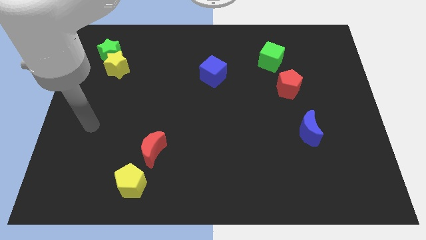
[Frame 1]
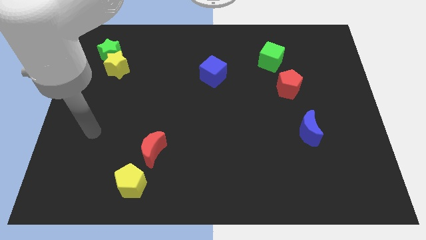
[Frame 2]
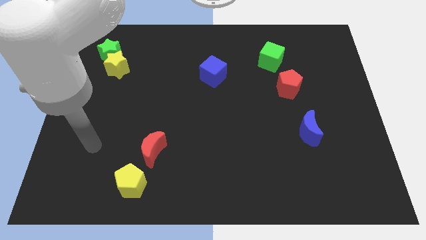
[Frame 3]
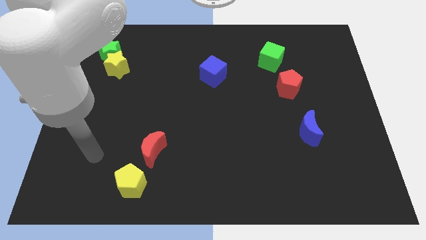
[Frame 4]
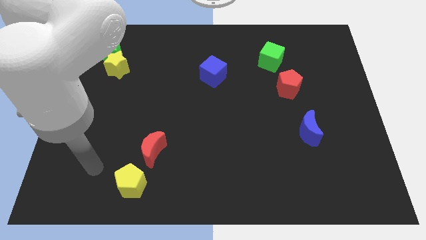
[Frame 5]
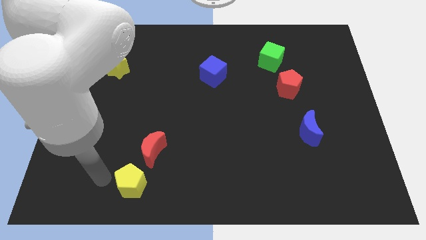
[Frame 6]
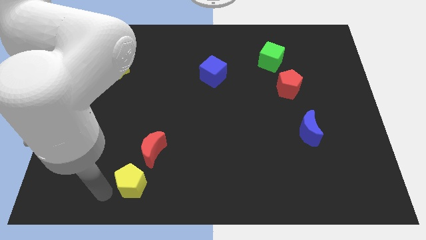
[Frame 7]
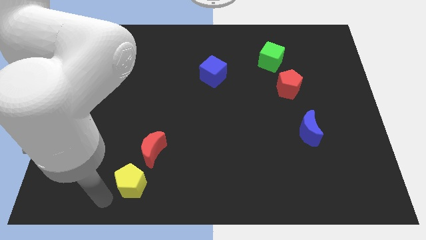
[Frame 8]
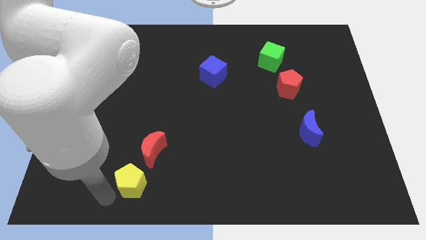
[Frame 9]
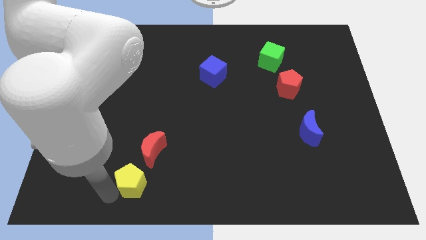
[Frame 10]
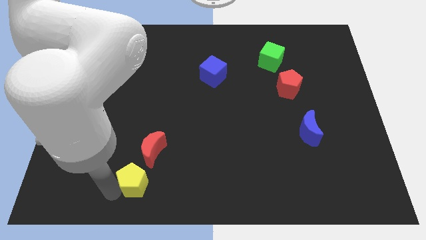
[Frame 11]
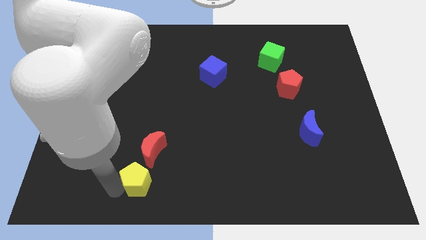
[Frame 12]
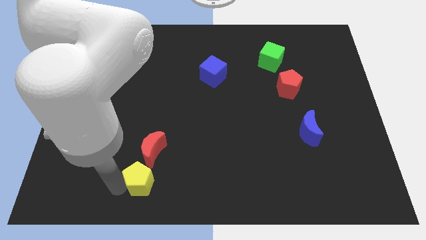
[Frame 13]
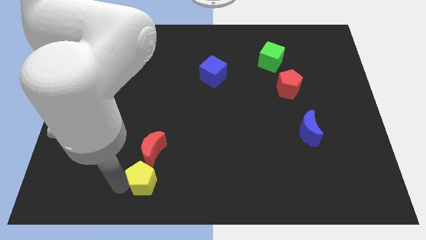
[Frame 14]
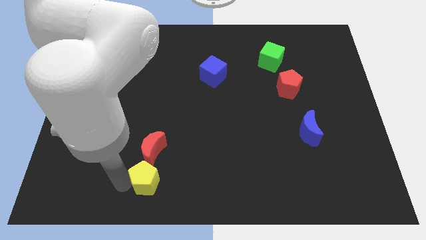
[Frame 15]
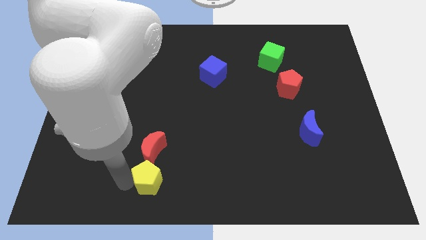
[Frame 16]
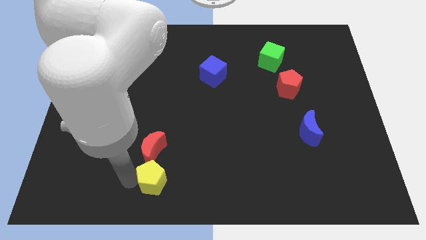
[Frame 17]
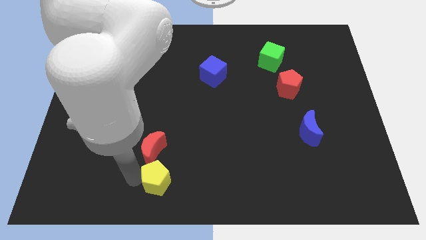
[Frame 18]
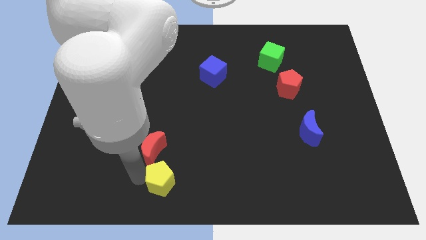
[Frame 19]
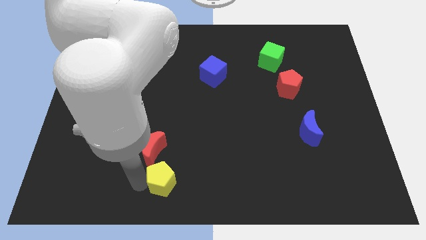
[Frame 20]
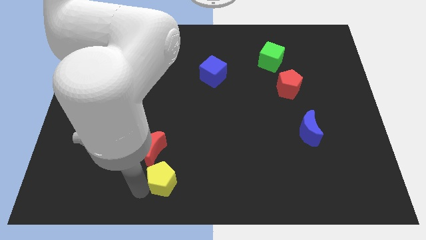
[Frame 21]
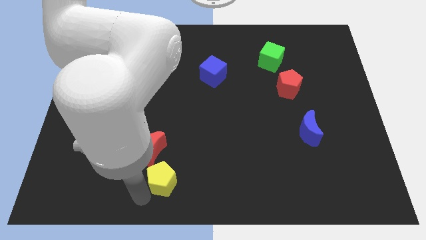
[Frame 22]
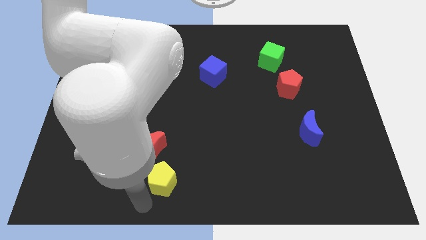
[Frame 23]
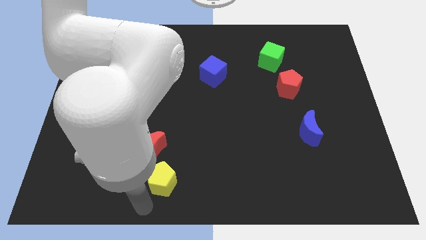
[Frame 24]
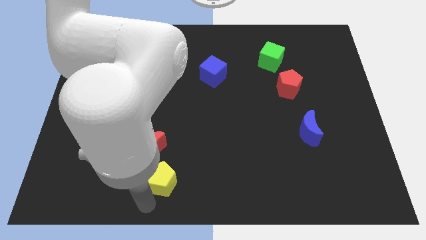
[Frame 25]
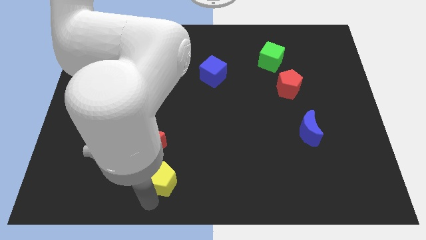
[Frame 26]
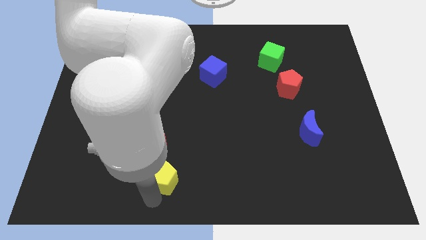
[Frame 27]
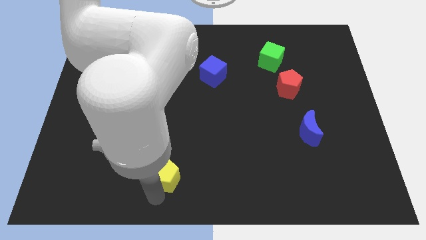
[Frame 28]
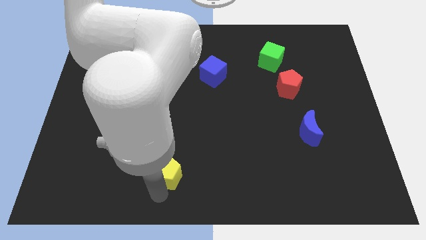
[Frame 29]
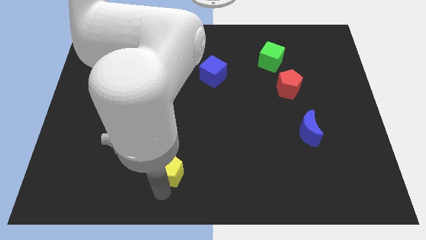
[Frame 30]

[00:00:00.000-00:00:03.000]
push the yellow pentagon somewhat diagonally upwards and right

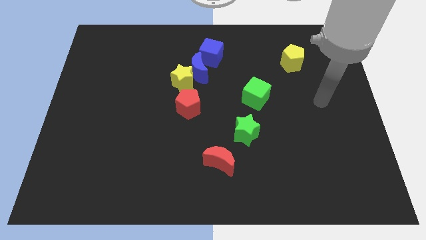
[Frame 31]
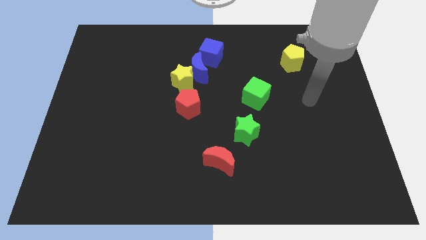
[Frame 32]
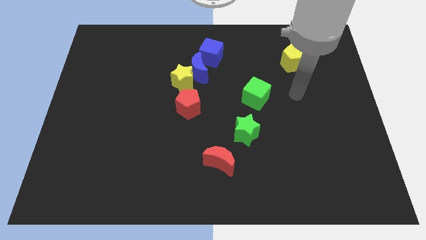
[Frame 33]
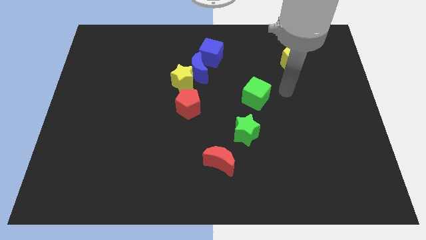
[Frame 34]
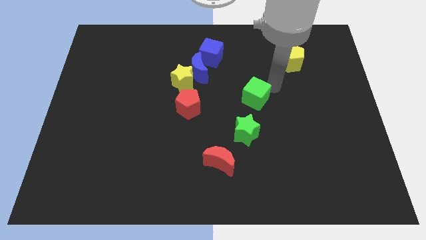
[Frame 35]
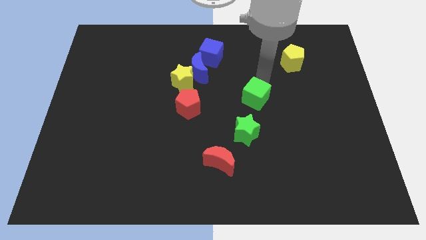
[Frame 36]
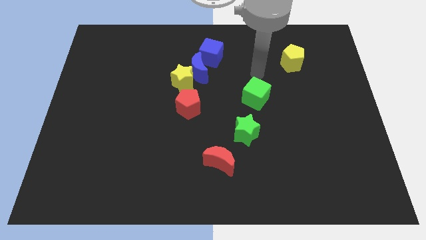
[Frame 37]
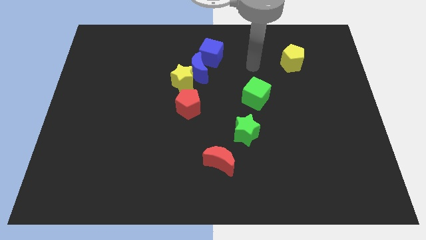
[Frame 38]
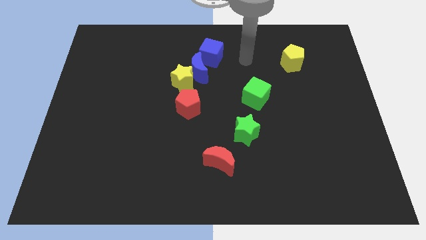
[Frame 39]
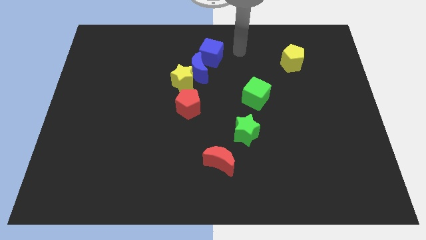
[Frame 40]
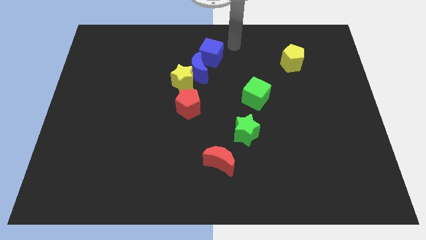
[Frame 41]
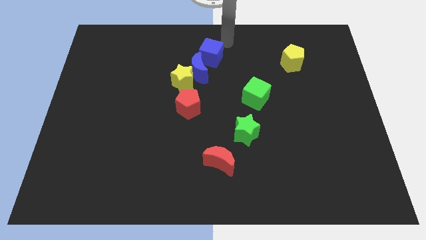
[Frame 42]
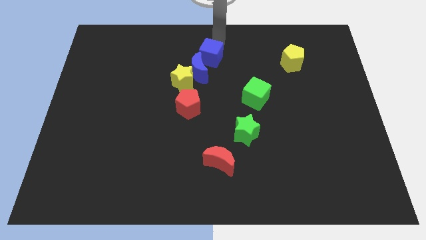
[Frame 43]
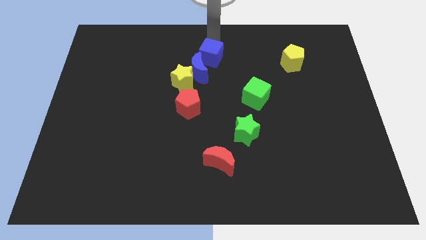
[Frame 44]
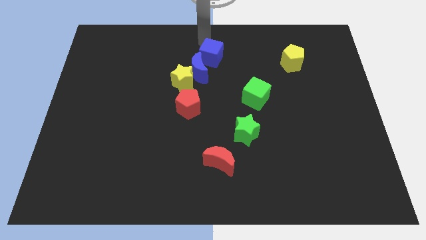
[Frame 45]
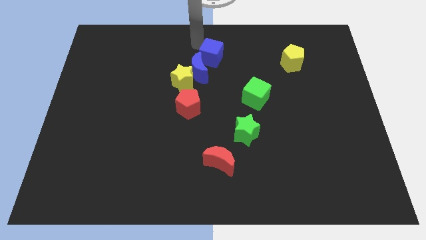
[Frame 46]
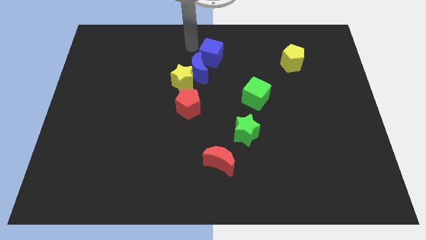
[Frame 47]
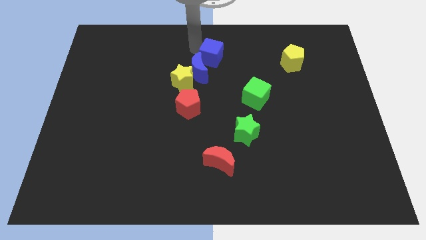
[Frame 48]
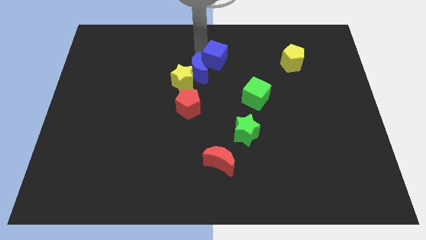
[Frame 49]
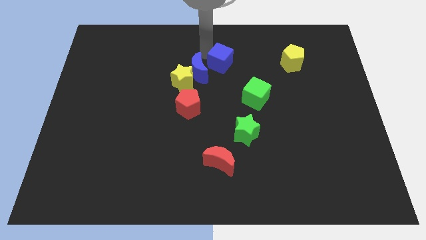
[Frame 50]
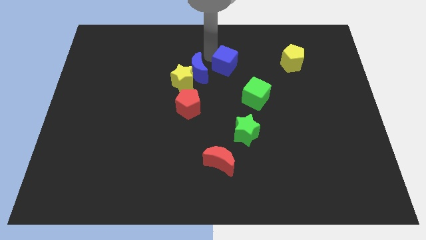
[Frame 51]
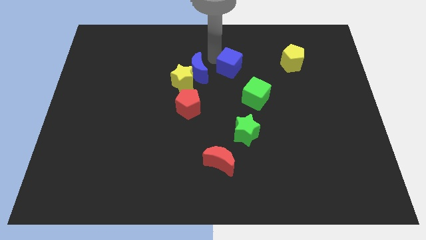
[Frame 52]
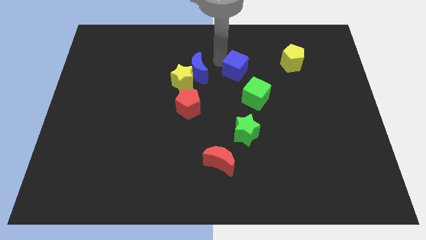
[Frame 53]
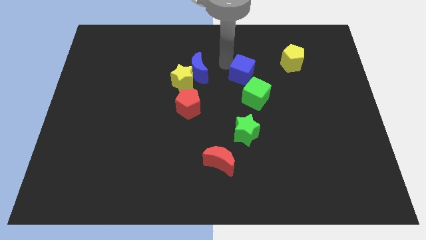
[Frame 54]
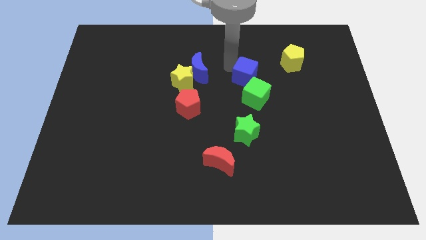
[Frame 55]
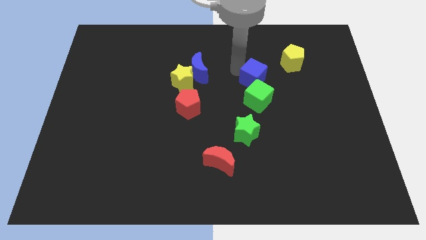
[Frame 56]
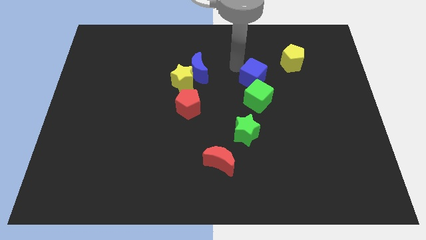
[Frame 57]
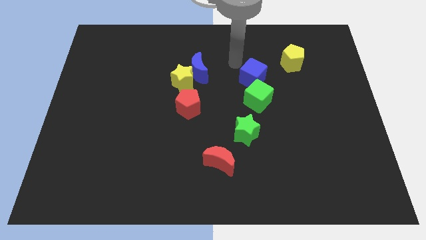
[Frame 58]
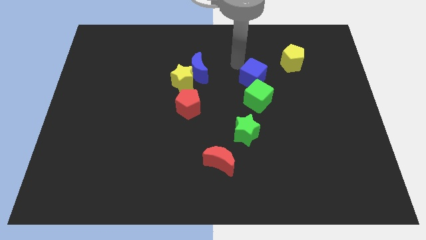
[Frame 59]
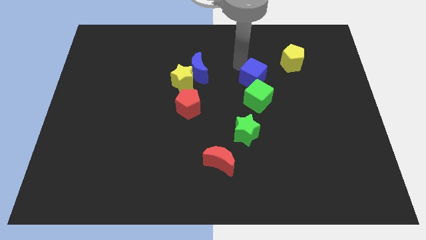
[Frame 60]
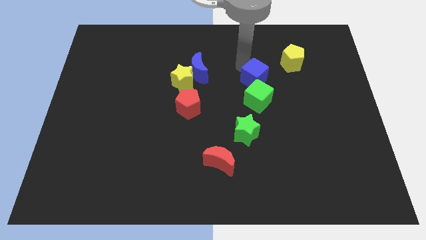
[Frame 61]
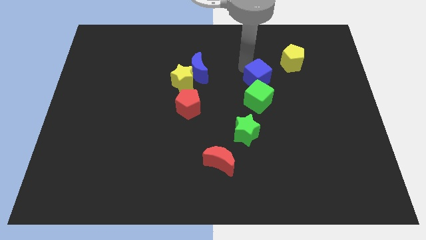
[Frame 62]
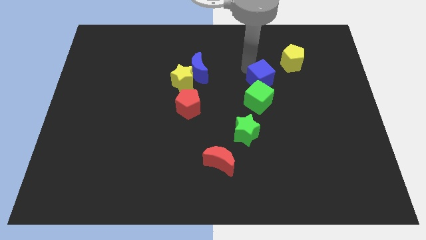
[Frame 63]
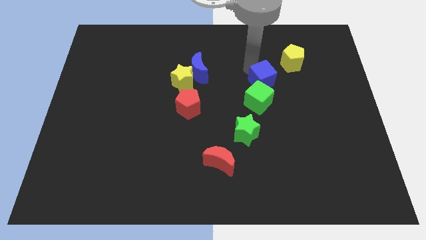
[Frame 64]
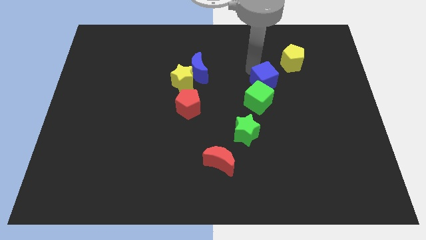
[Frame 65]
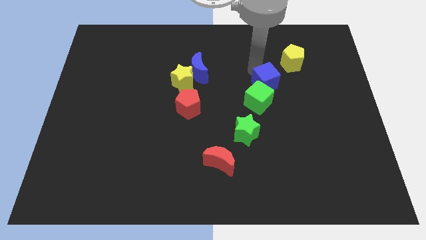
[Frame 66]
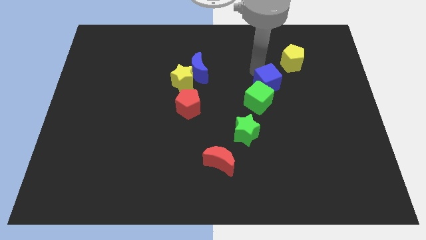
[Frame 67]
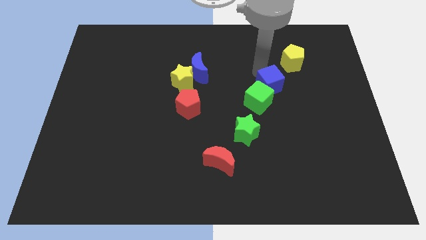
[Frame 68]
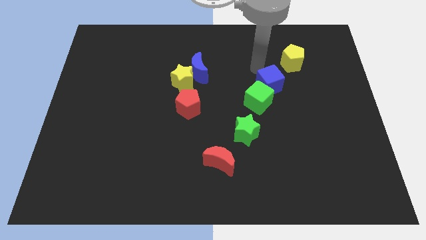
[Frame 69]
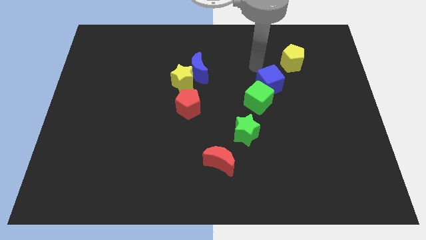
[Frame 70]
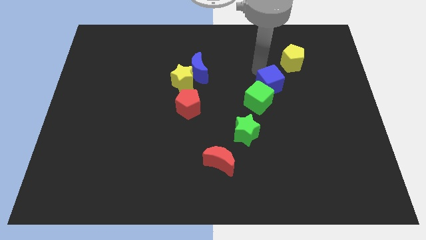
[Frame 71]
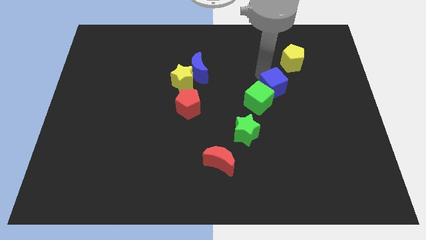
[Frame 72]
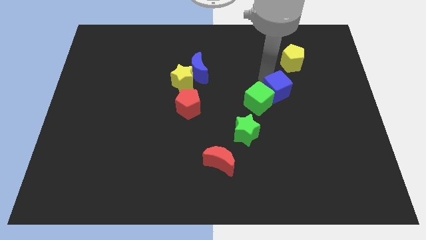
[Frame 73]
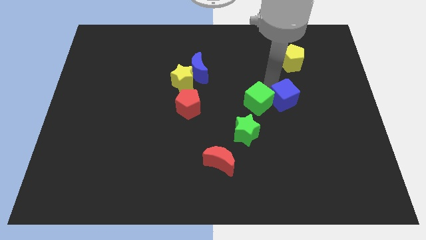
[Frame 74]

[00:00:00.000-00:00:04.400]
slide the blue cube downwards and then to the right

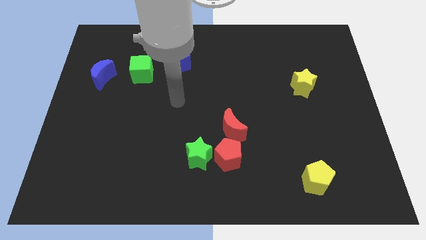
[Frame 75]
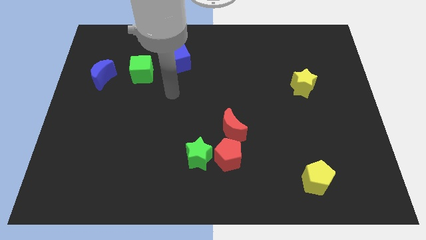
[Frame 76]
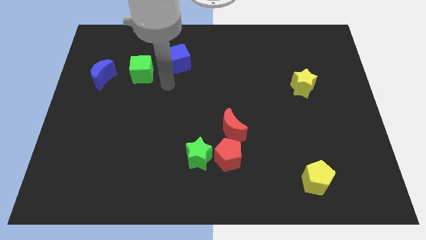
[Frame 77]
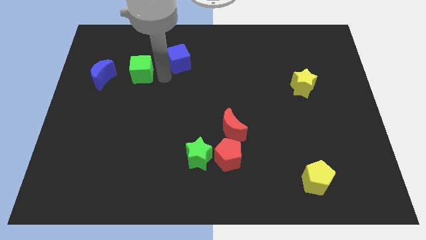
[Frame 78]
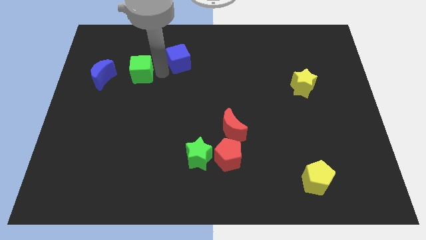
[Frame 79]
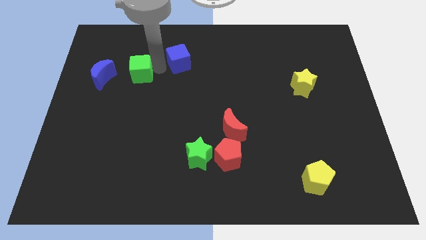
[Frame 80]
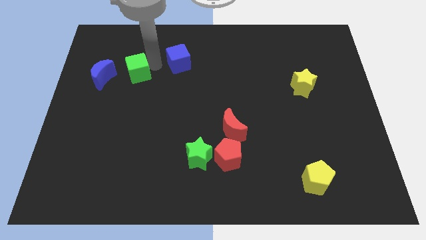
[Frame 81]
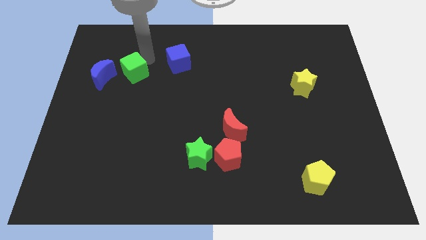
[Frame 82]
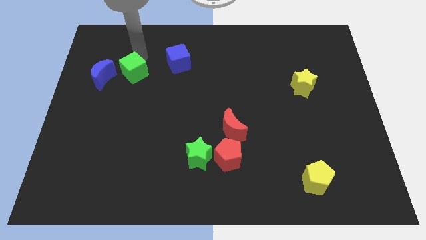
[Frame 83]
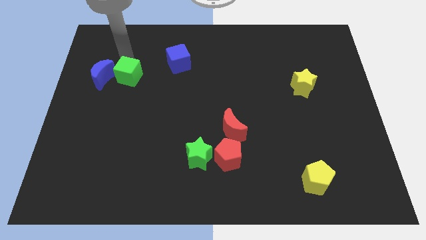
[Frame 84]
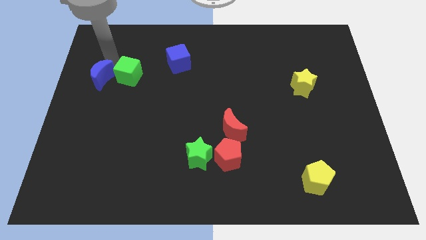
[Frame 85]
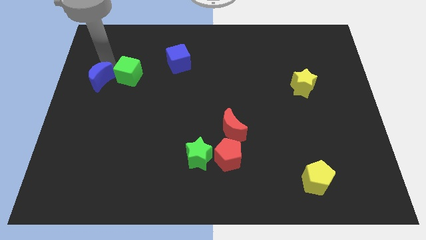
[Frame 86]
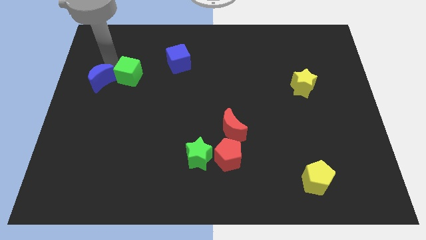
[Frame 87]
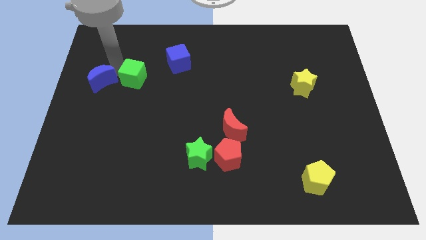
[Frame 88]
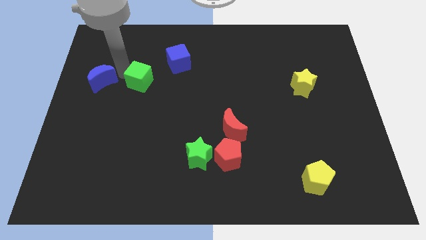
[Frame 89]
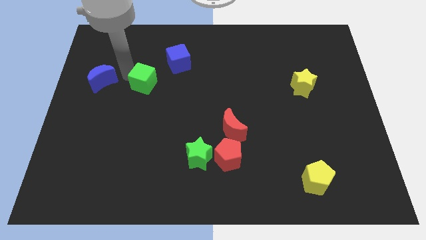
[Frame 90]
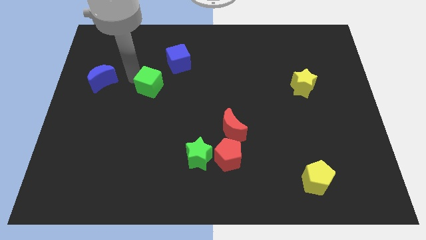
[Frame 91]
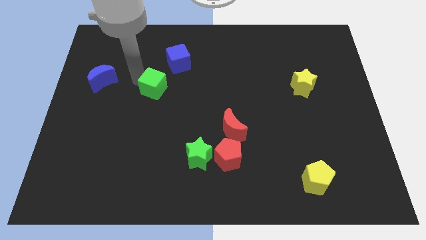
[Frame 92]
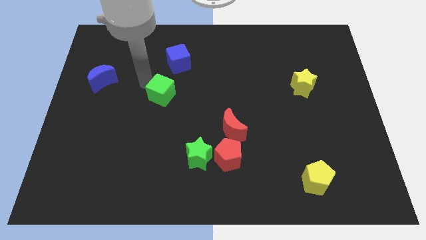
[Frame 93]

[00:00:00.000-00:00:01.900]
move the green cube slightly downwards and right diagonally
